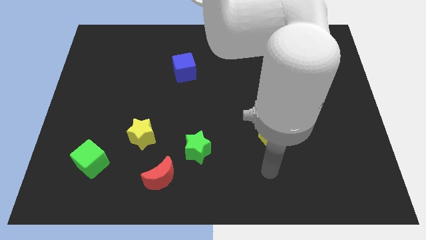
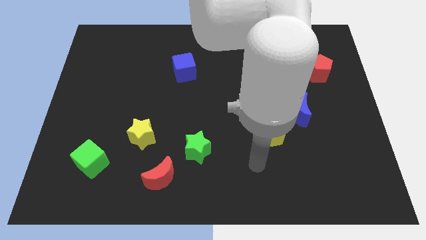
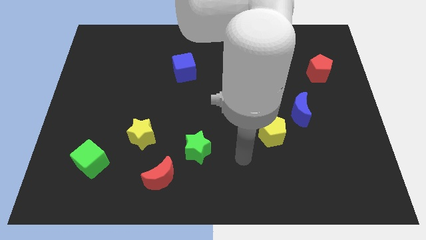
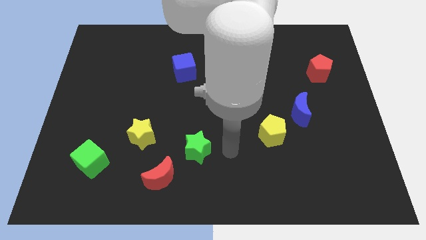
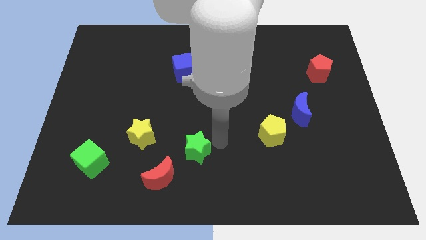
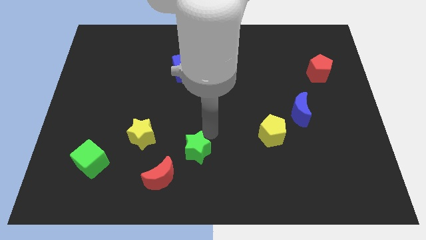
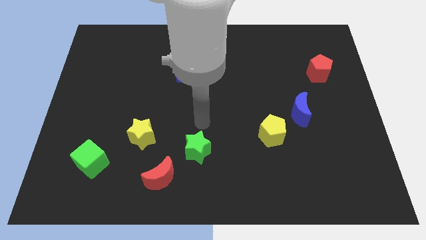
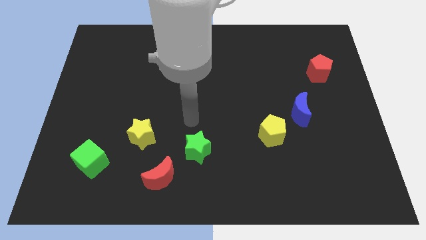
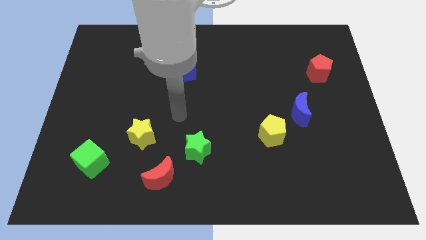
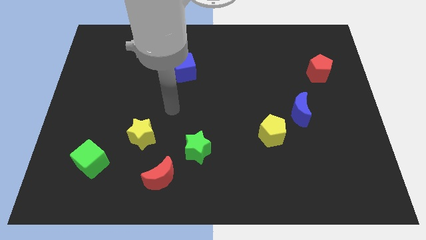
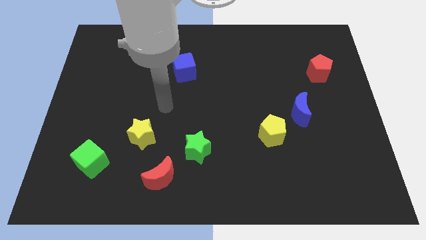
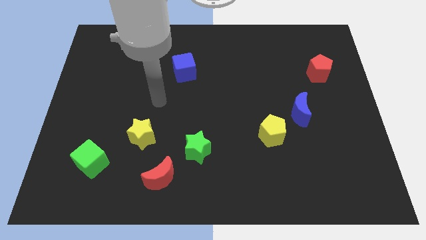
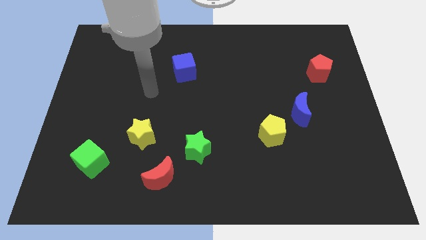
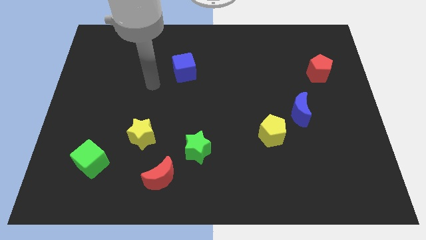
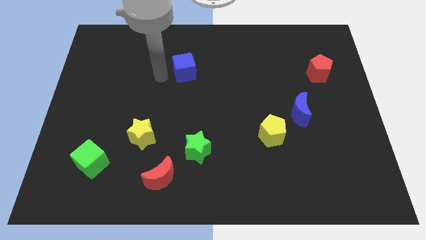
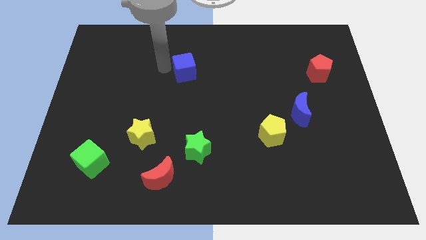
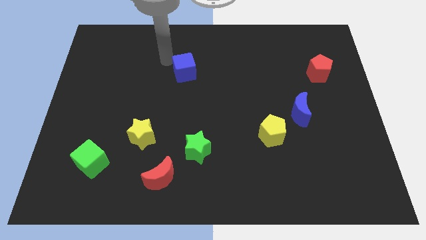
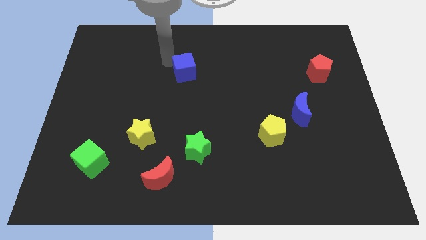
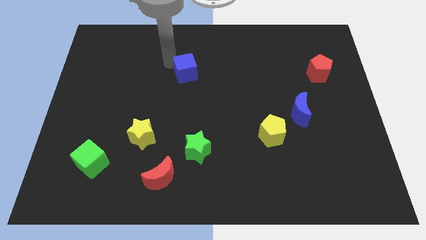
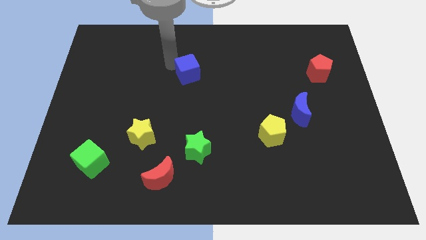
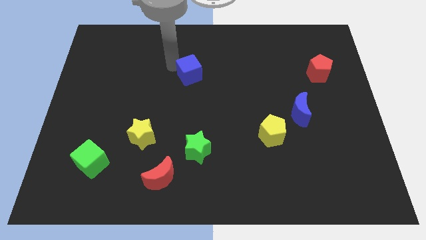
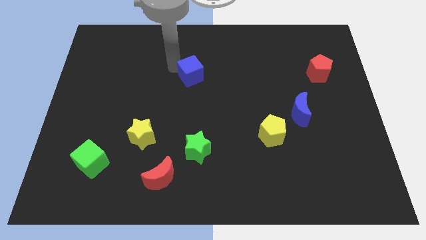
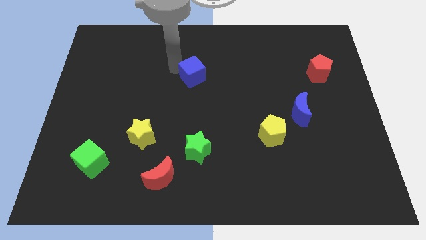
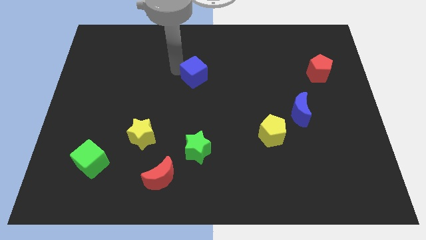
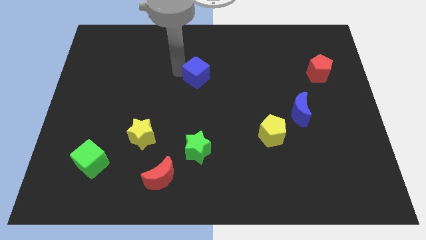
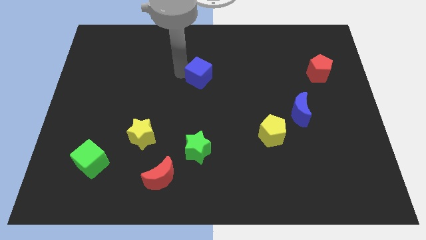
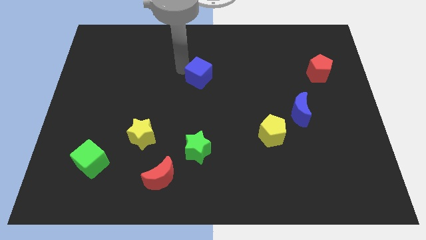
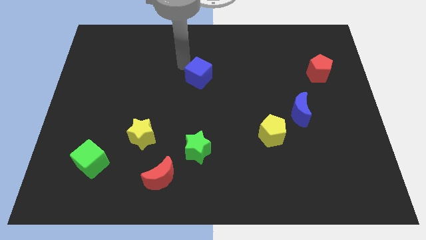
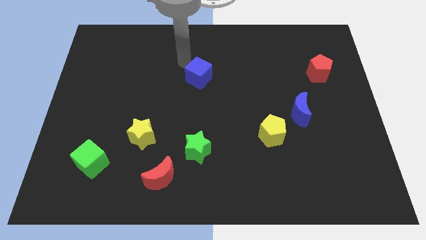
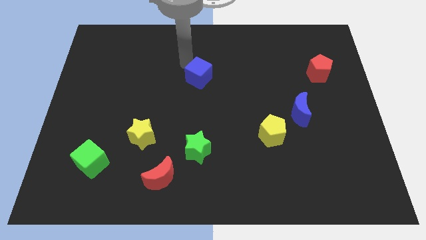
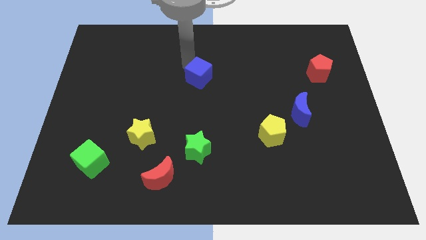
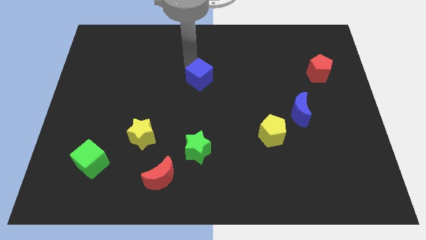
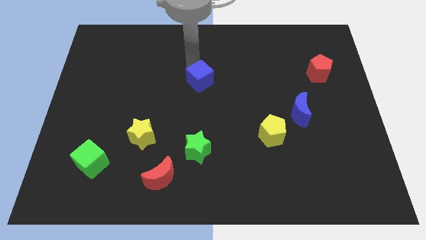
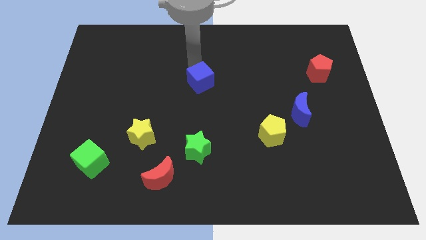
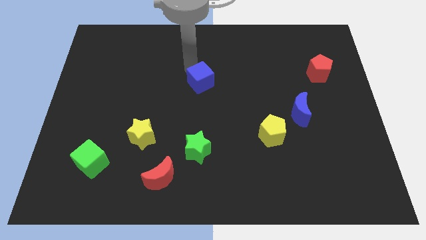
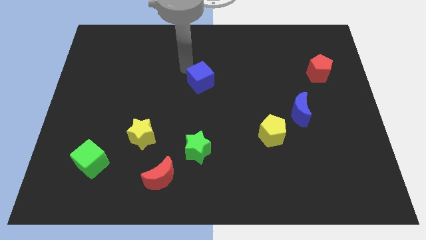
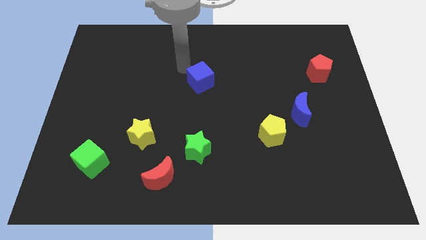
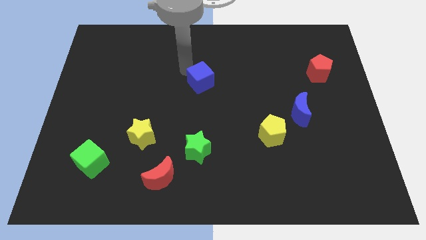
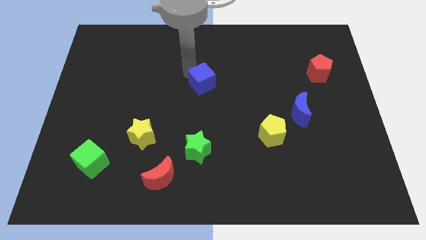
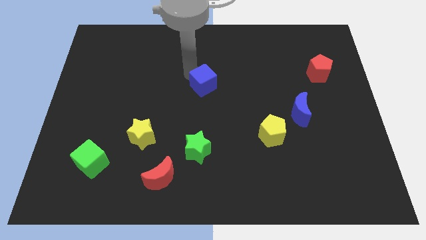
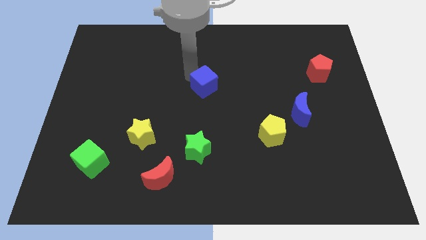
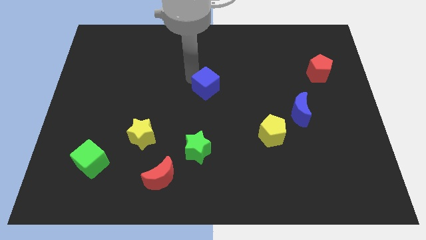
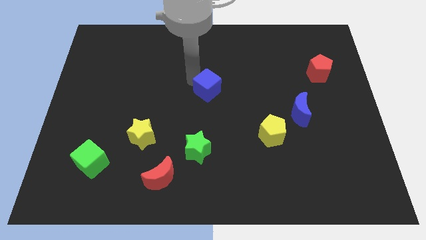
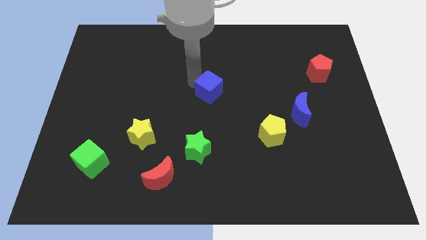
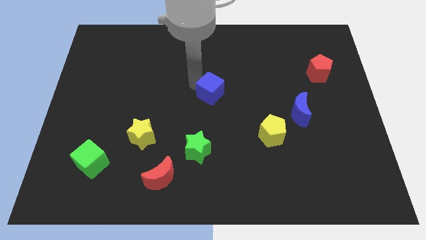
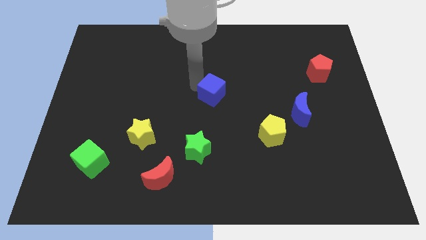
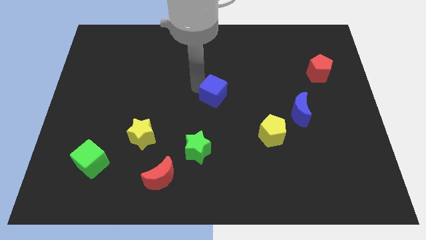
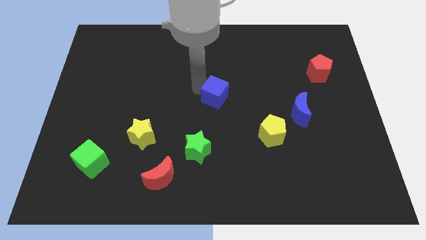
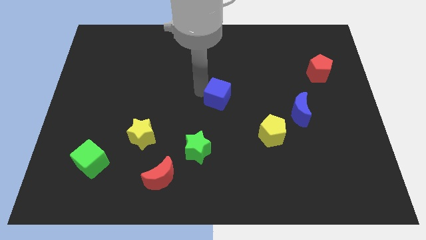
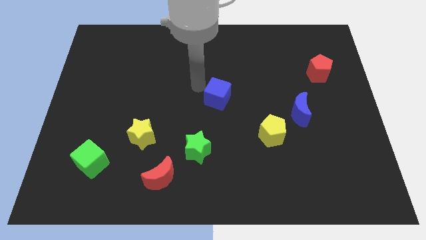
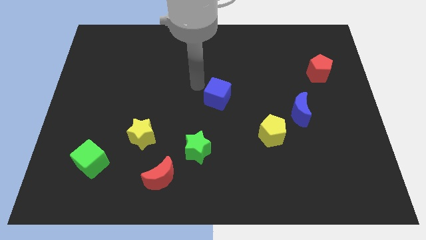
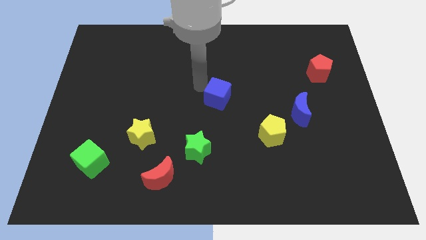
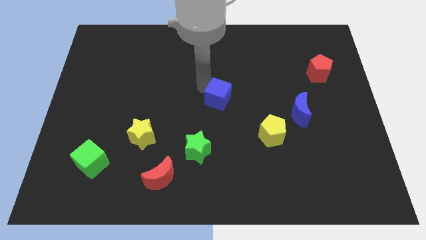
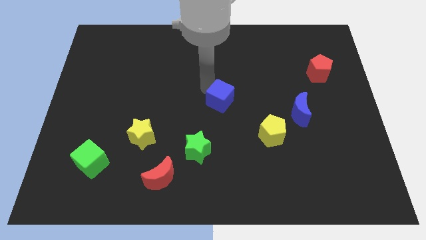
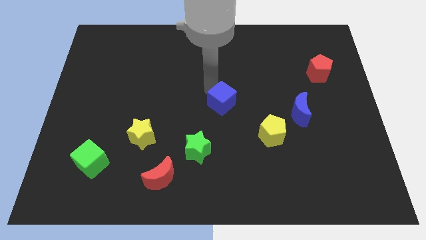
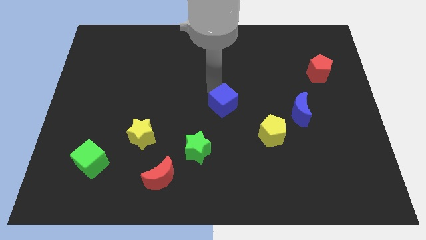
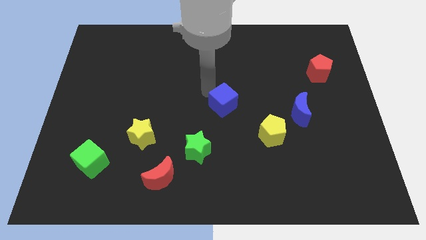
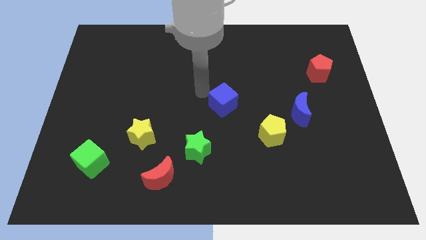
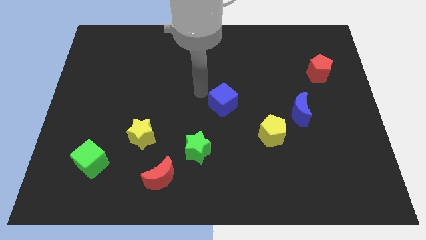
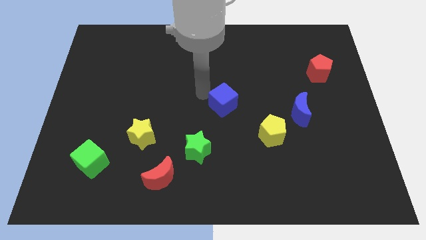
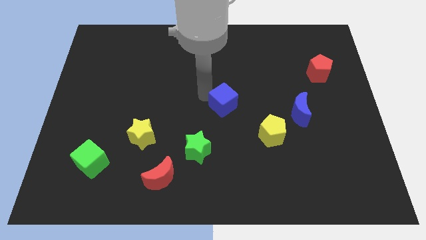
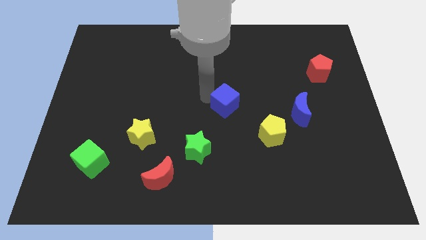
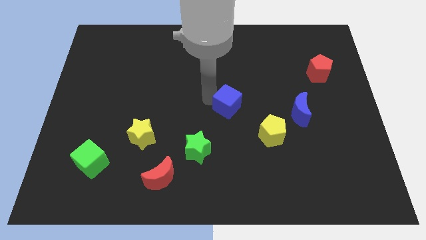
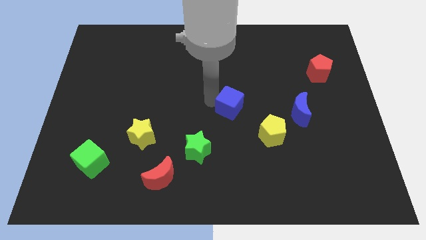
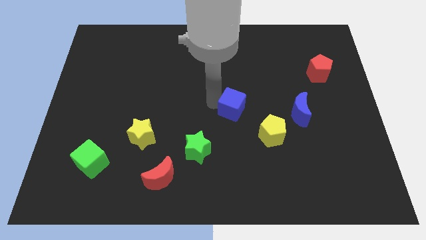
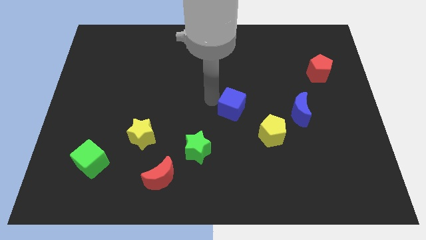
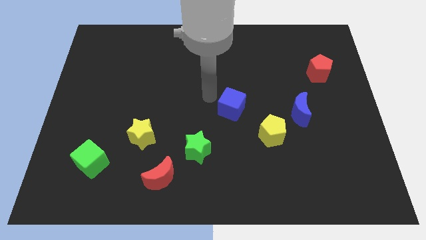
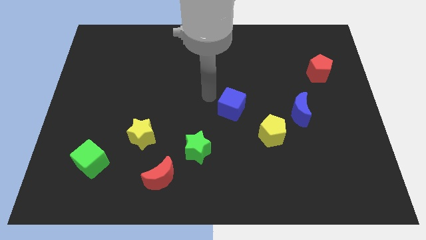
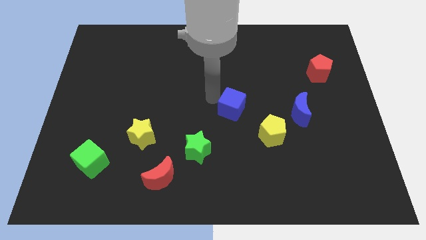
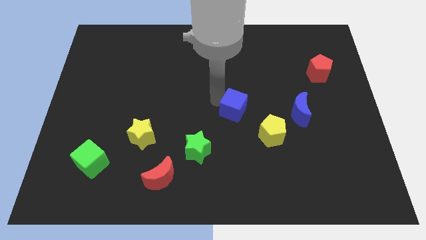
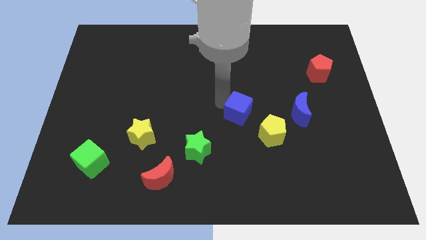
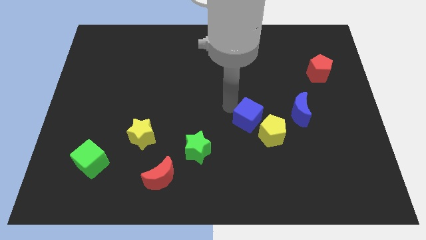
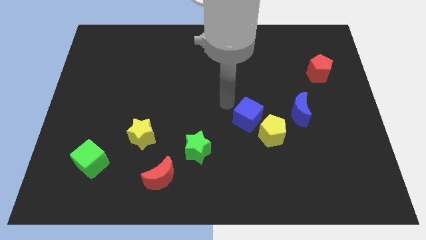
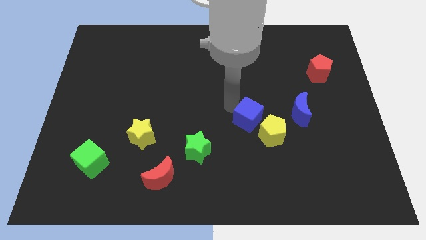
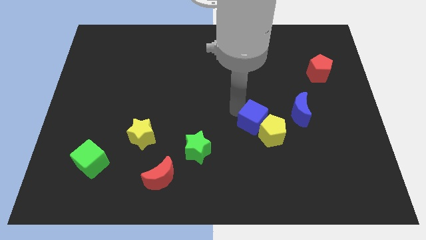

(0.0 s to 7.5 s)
move the blue cube close to the yellow pentagon
